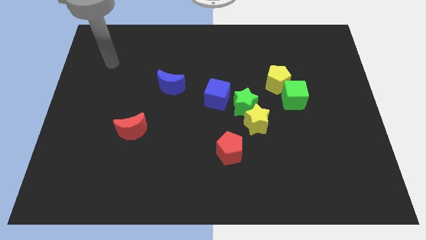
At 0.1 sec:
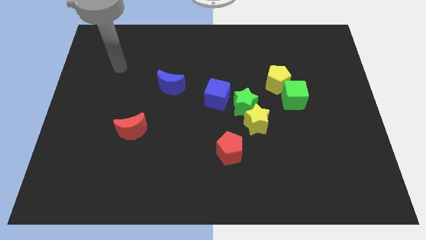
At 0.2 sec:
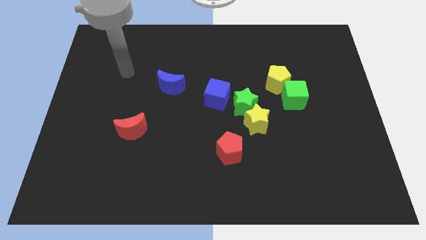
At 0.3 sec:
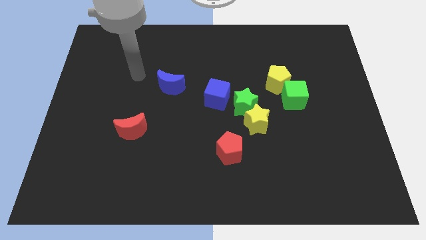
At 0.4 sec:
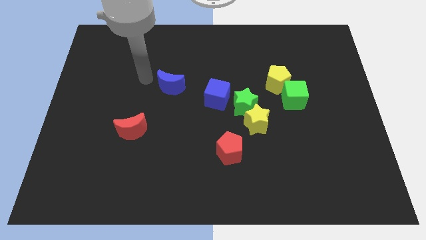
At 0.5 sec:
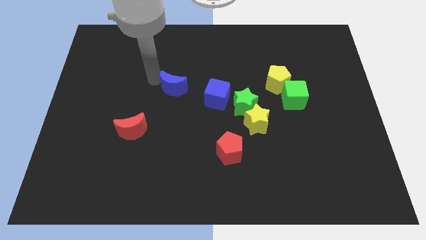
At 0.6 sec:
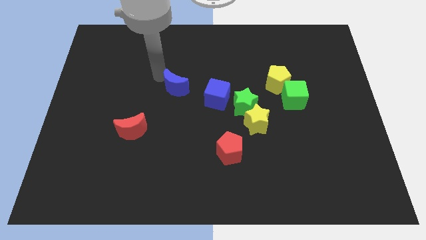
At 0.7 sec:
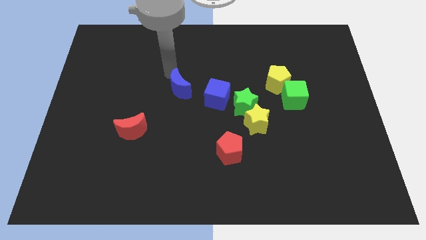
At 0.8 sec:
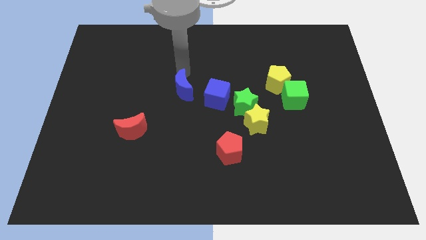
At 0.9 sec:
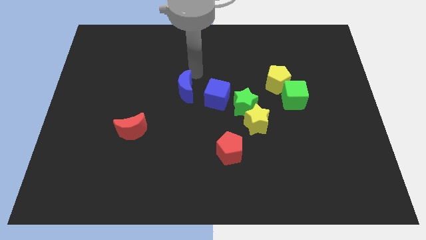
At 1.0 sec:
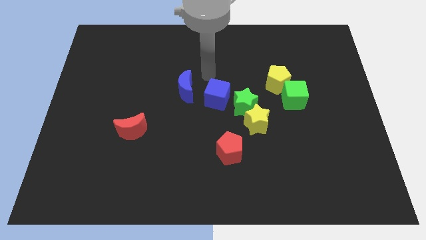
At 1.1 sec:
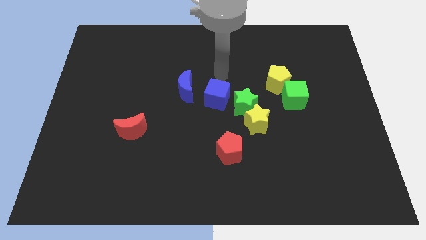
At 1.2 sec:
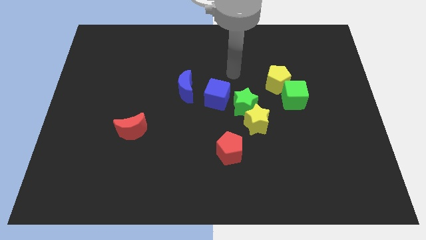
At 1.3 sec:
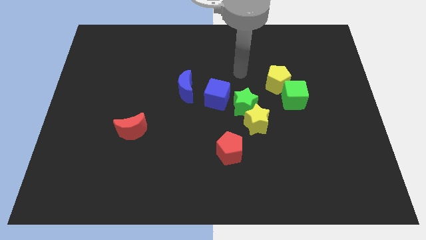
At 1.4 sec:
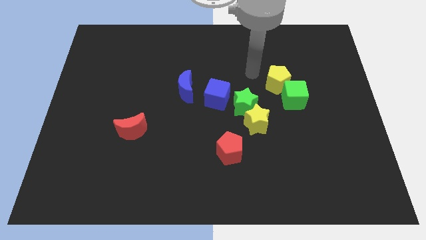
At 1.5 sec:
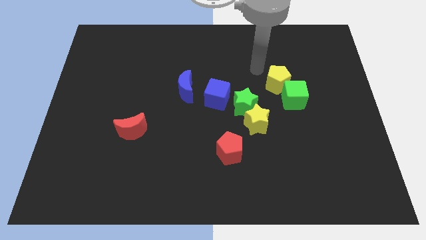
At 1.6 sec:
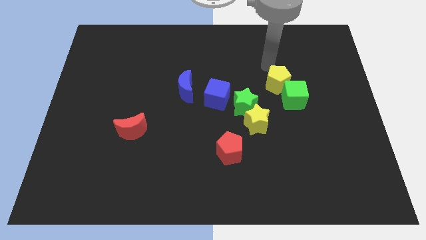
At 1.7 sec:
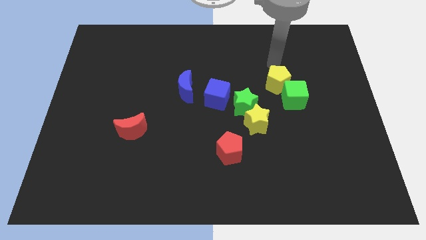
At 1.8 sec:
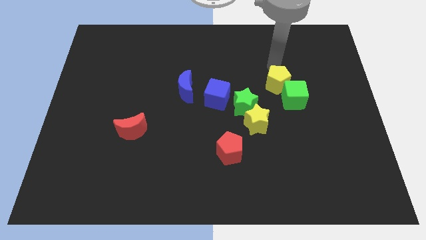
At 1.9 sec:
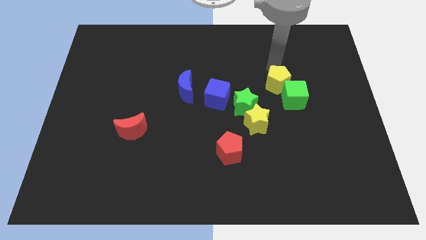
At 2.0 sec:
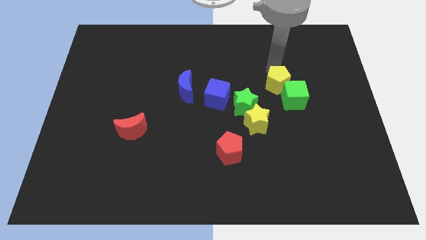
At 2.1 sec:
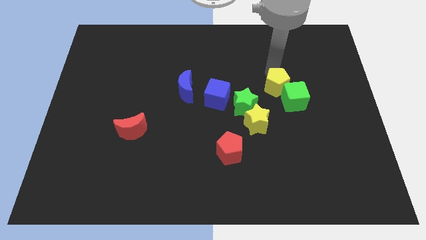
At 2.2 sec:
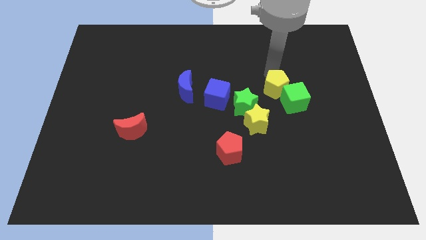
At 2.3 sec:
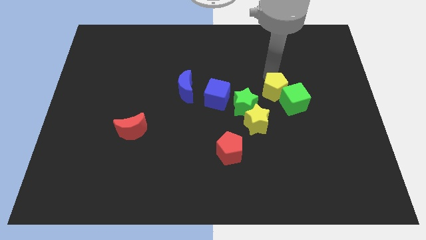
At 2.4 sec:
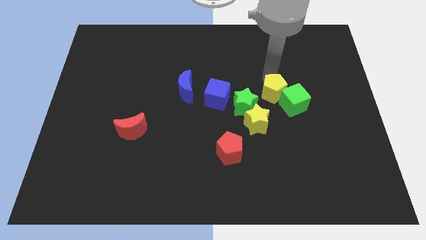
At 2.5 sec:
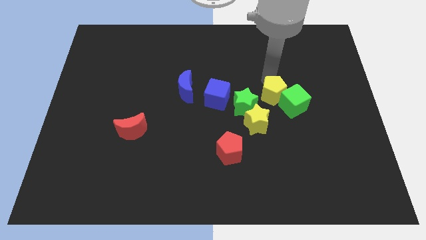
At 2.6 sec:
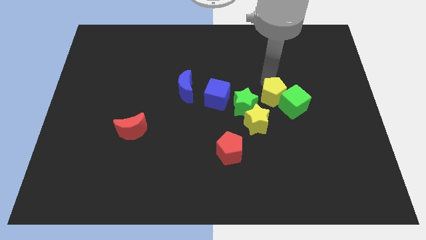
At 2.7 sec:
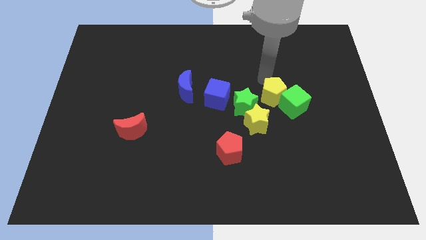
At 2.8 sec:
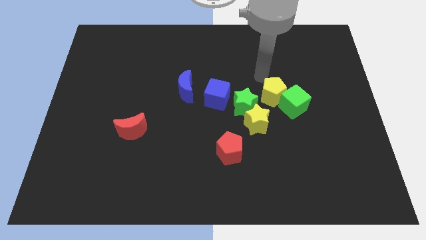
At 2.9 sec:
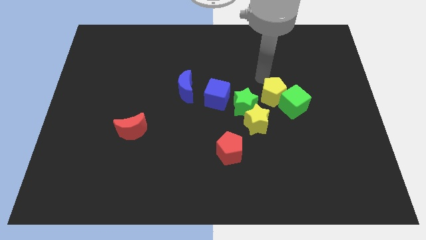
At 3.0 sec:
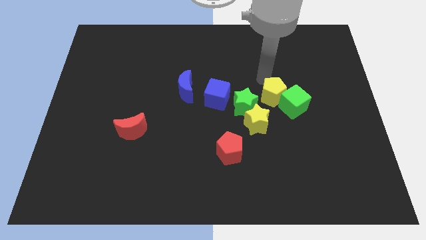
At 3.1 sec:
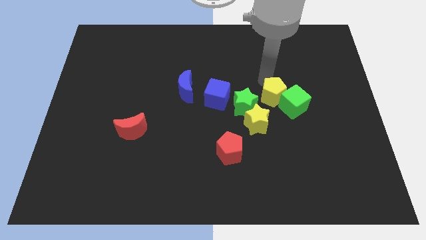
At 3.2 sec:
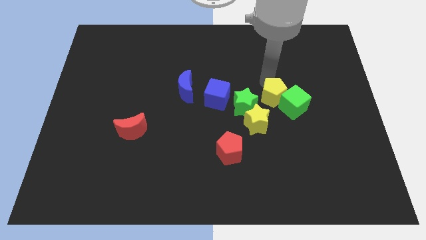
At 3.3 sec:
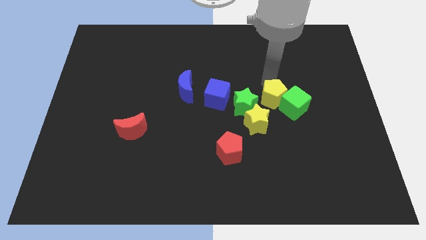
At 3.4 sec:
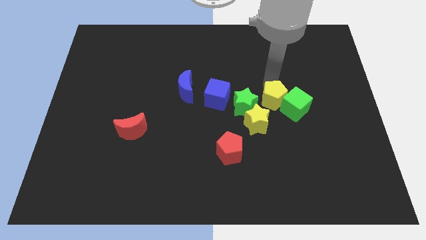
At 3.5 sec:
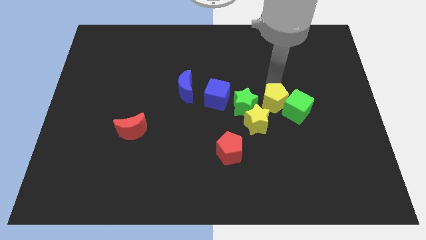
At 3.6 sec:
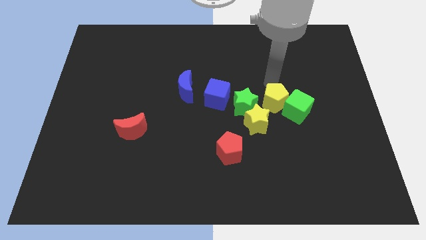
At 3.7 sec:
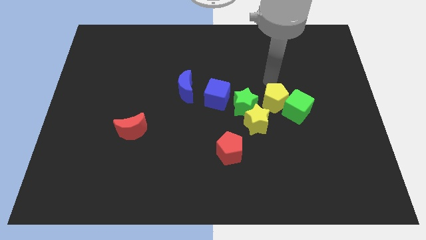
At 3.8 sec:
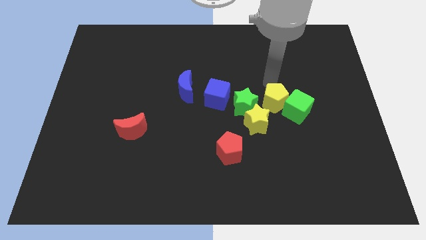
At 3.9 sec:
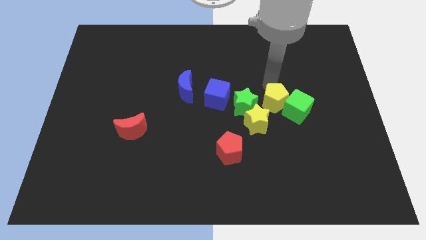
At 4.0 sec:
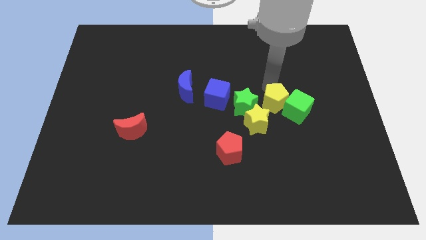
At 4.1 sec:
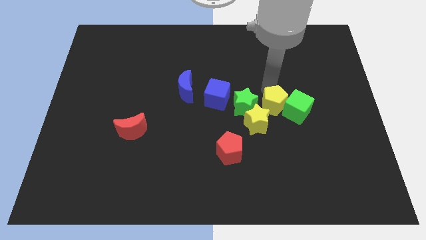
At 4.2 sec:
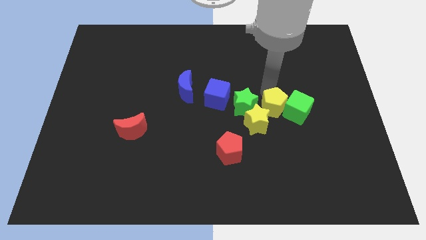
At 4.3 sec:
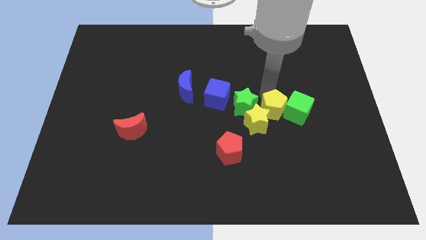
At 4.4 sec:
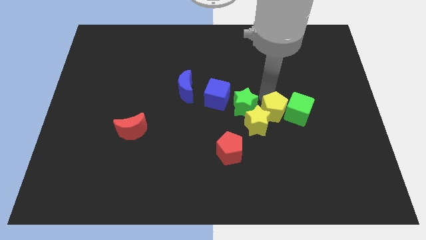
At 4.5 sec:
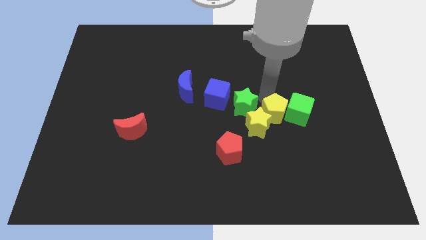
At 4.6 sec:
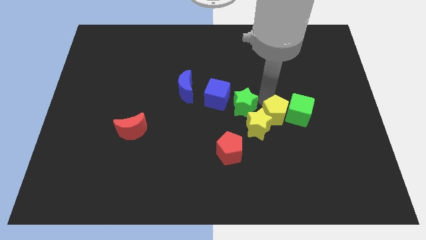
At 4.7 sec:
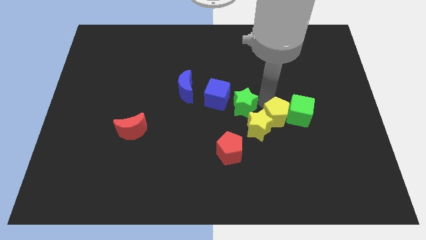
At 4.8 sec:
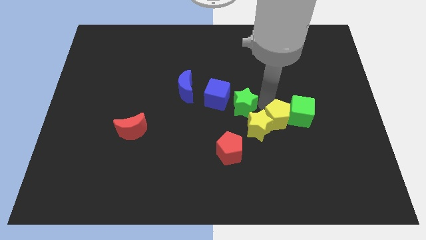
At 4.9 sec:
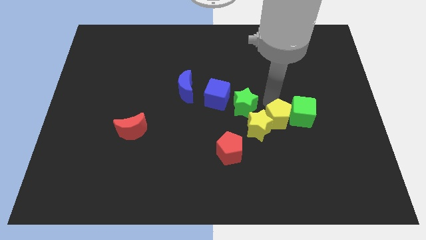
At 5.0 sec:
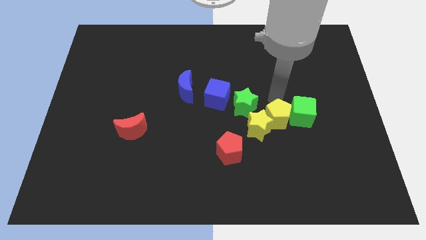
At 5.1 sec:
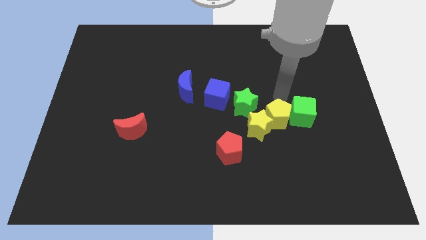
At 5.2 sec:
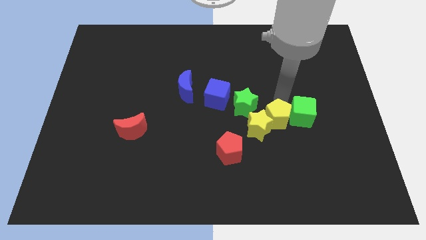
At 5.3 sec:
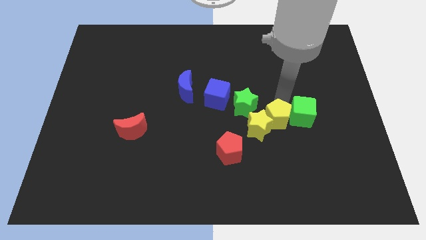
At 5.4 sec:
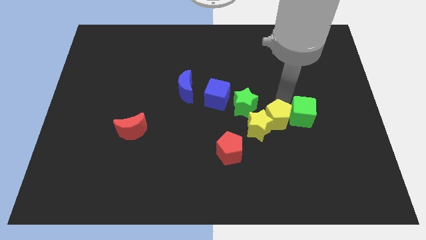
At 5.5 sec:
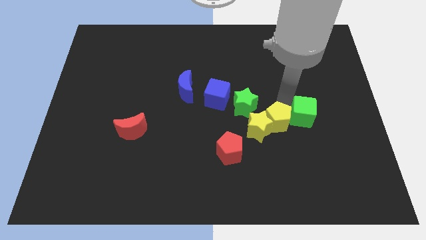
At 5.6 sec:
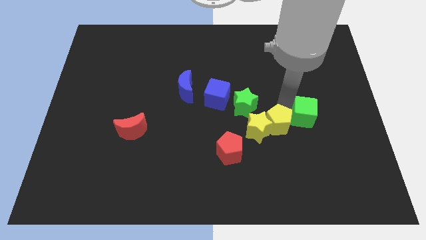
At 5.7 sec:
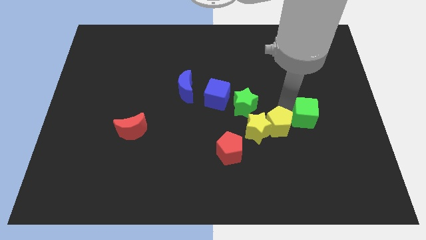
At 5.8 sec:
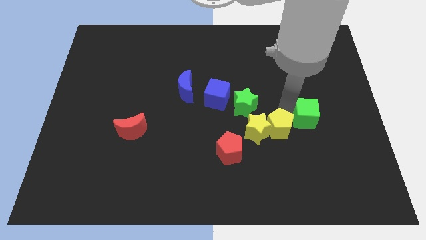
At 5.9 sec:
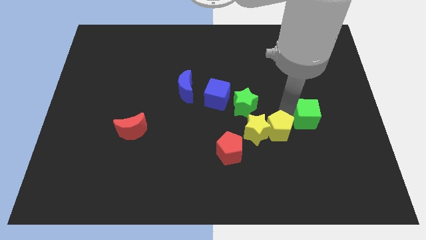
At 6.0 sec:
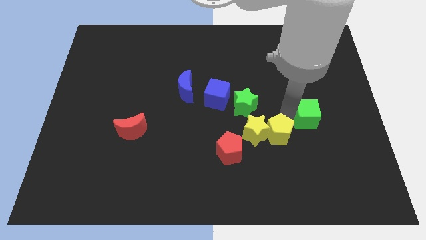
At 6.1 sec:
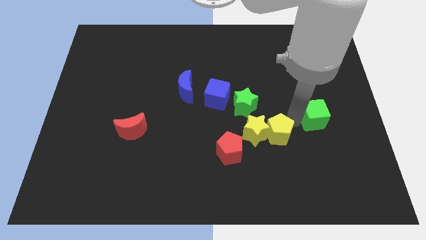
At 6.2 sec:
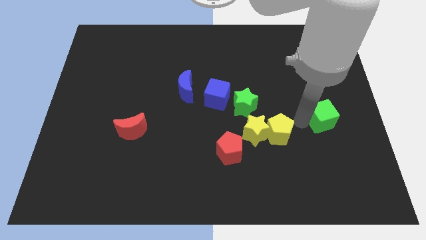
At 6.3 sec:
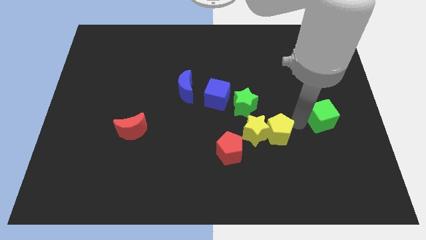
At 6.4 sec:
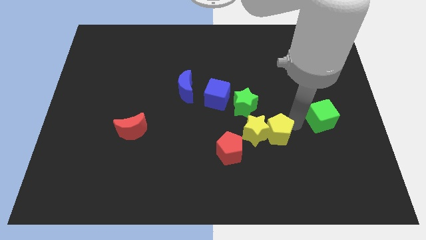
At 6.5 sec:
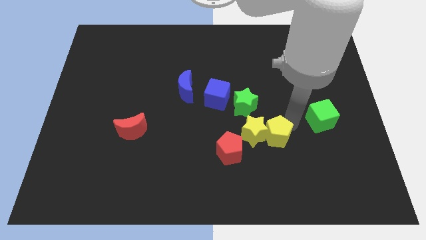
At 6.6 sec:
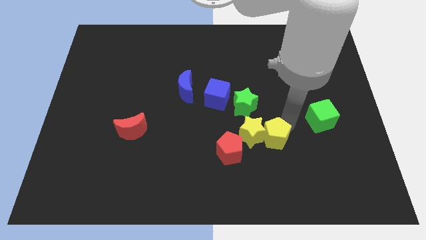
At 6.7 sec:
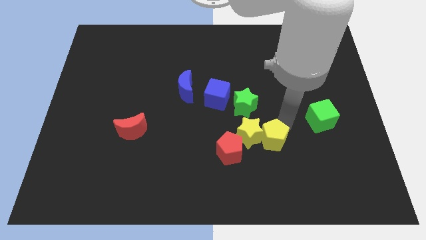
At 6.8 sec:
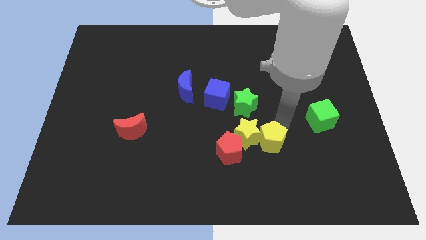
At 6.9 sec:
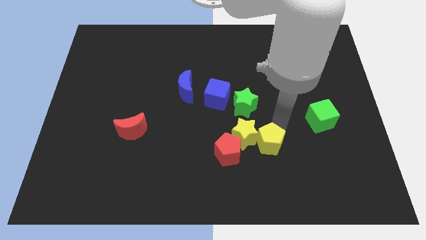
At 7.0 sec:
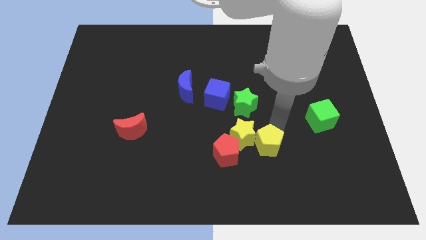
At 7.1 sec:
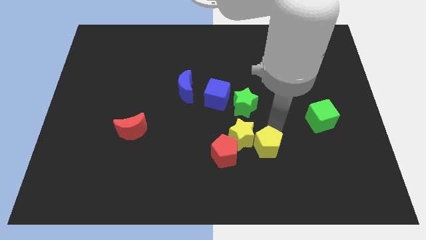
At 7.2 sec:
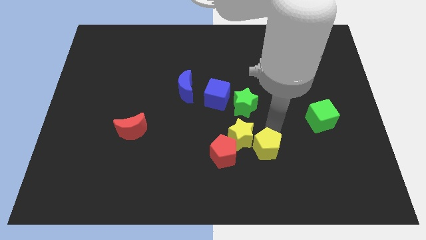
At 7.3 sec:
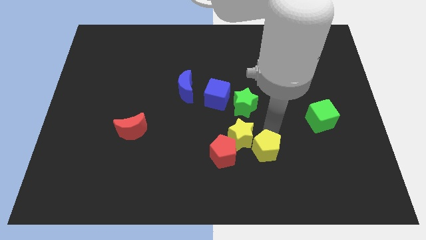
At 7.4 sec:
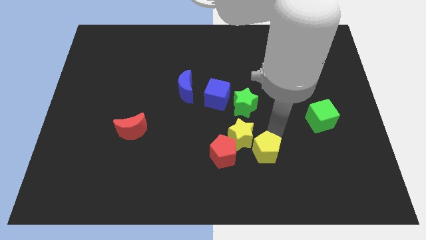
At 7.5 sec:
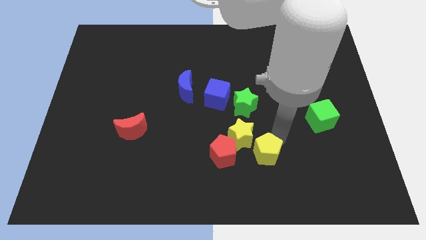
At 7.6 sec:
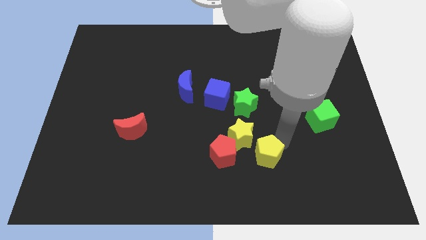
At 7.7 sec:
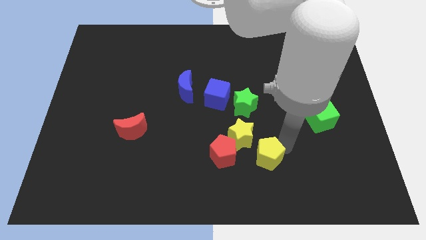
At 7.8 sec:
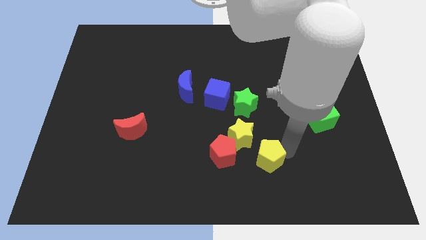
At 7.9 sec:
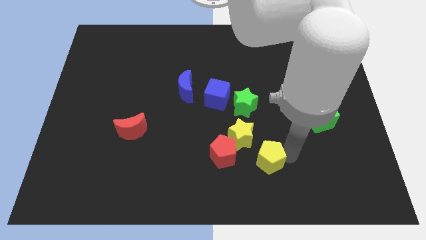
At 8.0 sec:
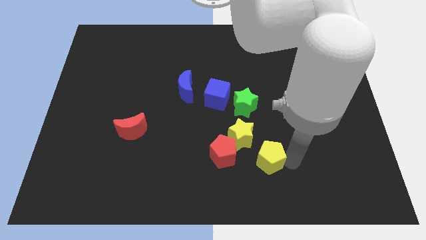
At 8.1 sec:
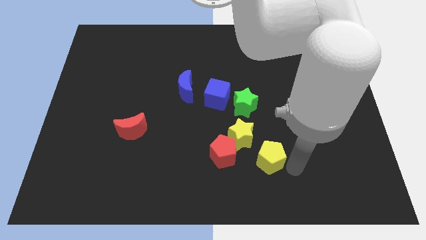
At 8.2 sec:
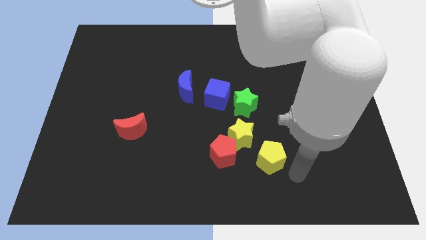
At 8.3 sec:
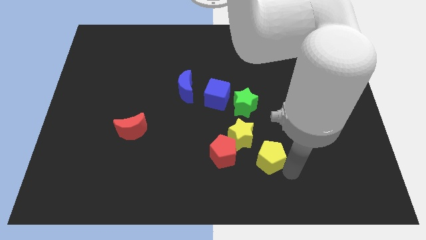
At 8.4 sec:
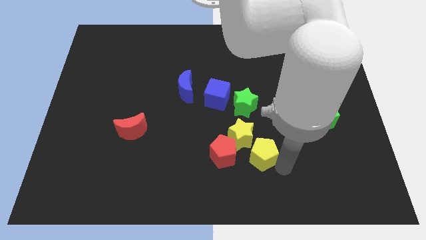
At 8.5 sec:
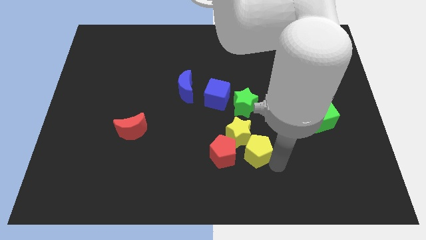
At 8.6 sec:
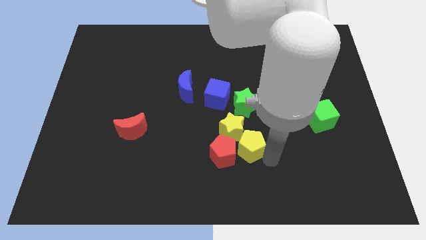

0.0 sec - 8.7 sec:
put the yellow pentagon to the red pentagon
